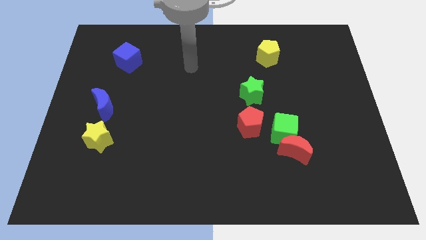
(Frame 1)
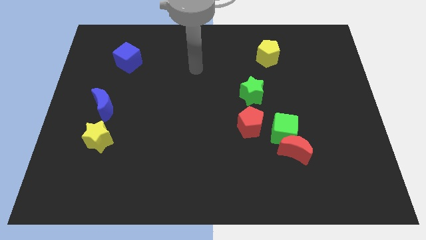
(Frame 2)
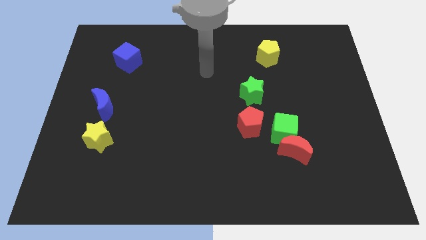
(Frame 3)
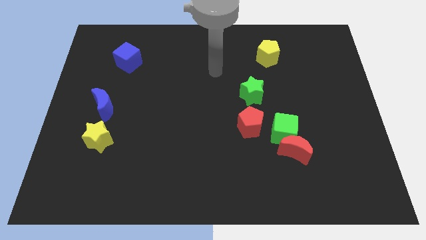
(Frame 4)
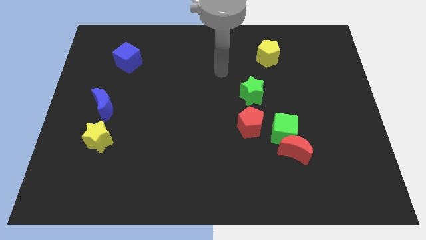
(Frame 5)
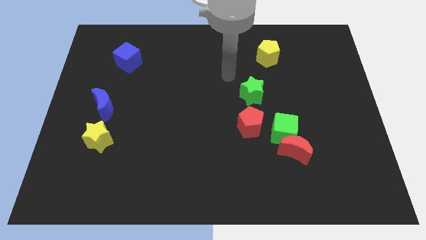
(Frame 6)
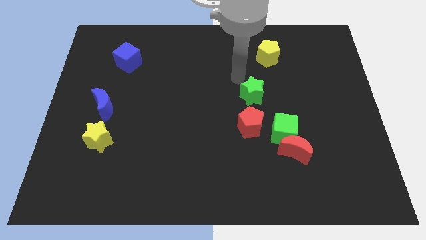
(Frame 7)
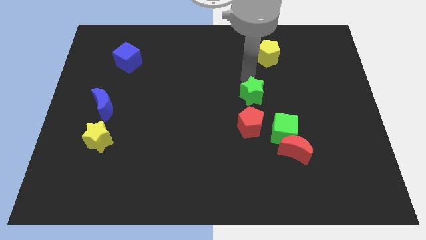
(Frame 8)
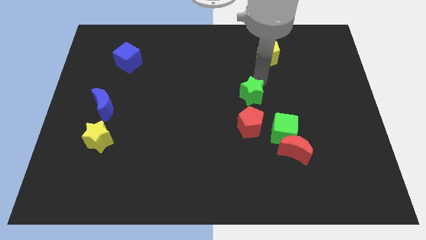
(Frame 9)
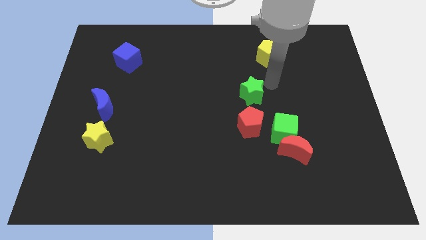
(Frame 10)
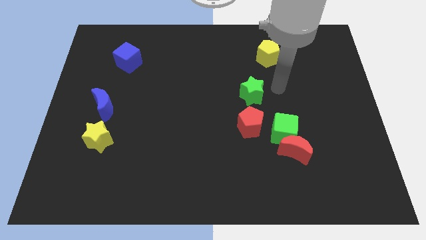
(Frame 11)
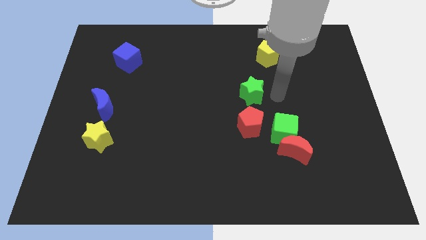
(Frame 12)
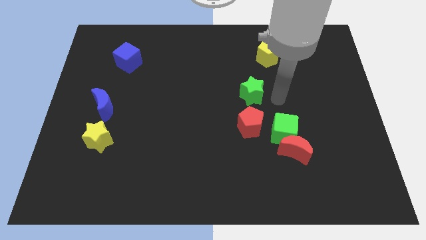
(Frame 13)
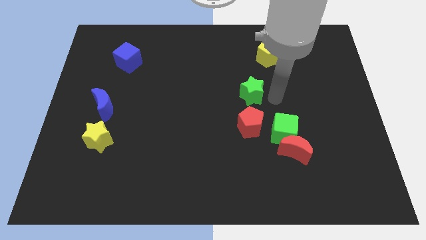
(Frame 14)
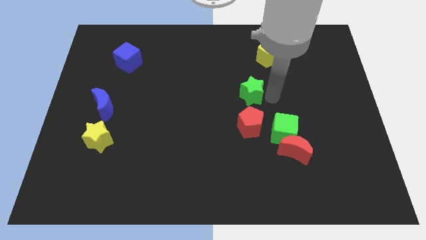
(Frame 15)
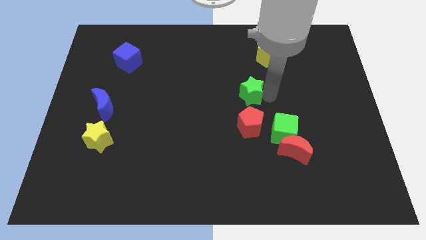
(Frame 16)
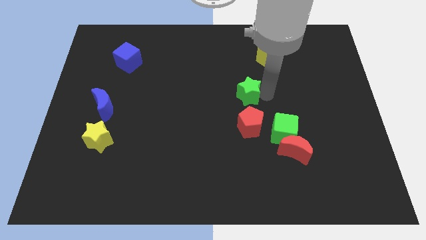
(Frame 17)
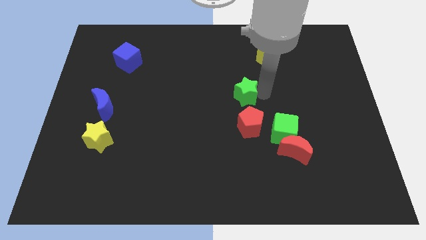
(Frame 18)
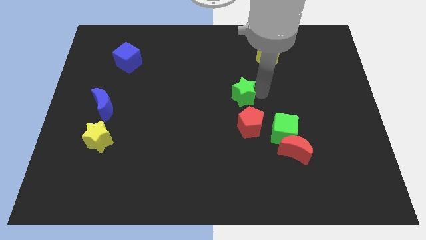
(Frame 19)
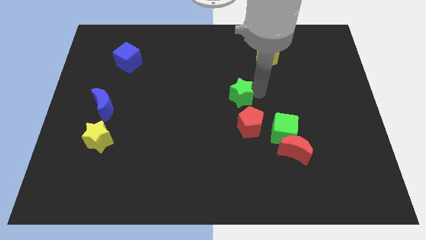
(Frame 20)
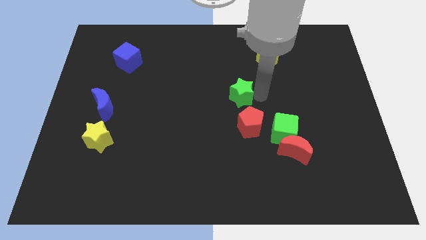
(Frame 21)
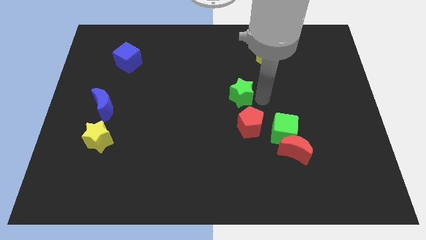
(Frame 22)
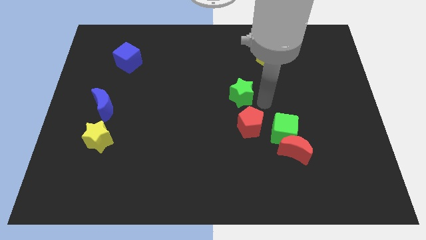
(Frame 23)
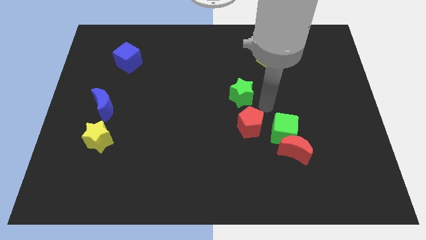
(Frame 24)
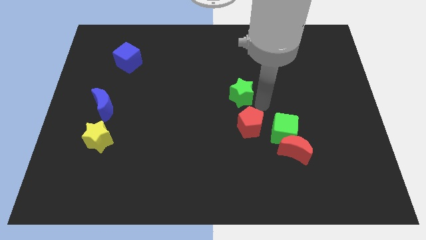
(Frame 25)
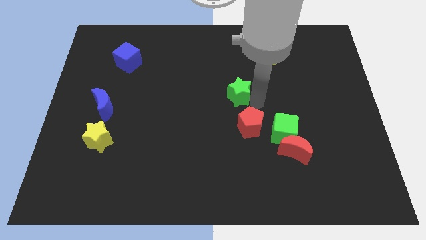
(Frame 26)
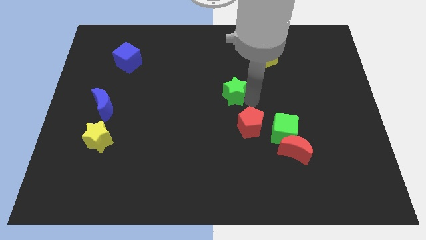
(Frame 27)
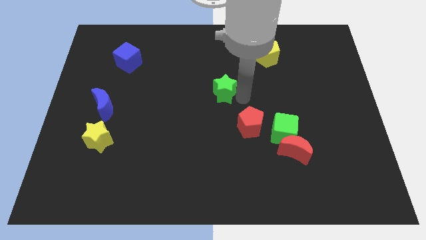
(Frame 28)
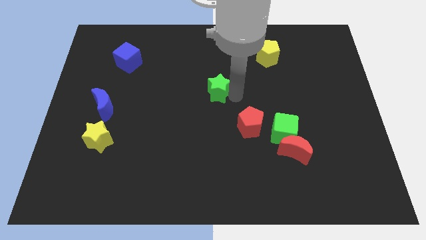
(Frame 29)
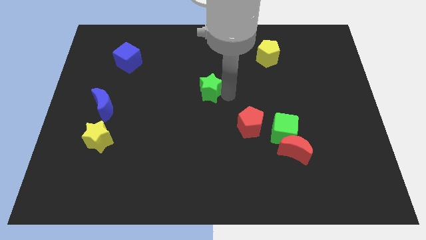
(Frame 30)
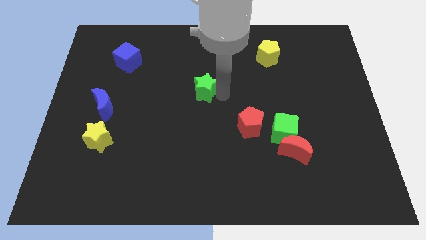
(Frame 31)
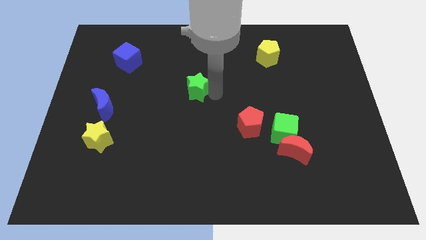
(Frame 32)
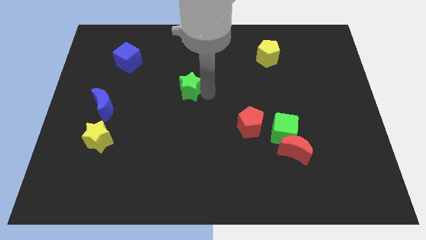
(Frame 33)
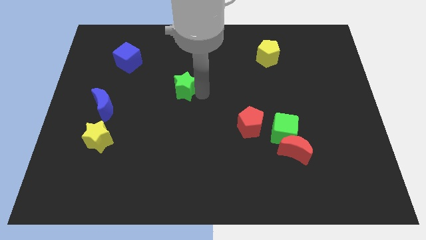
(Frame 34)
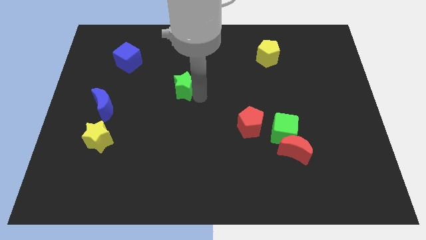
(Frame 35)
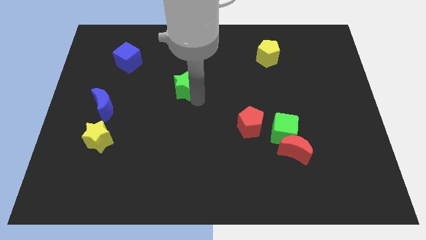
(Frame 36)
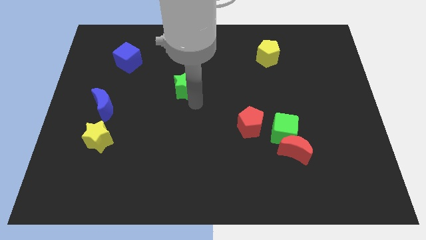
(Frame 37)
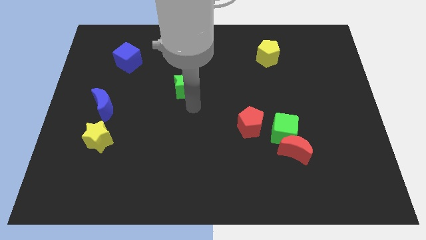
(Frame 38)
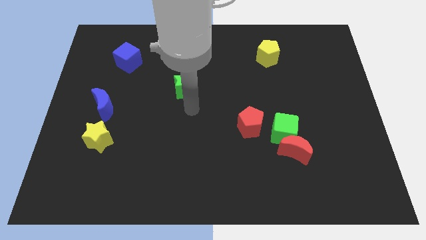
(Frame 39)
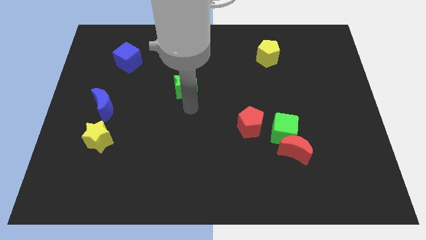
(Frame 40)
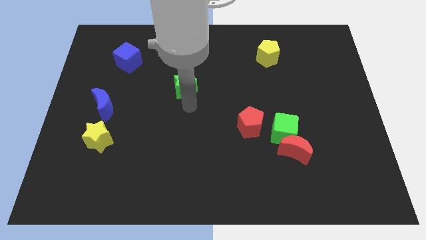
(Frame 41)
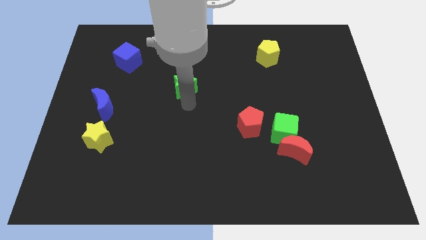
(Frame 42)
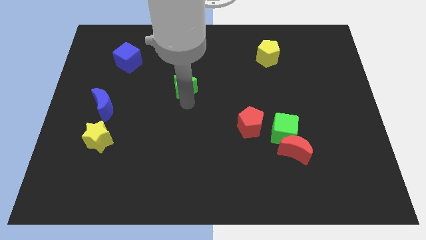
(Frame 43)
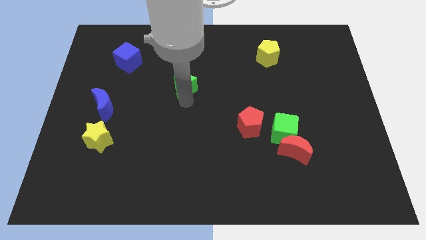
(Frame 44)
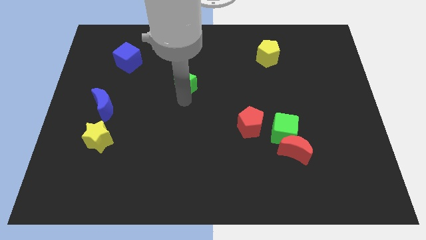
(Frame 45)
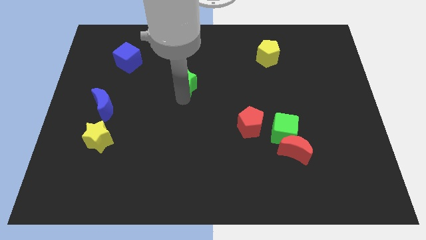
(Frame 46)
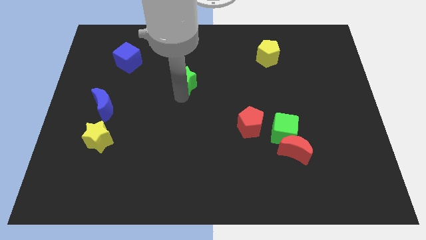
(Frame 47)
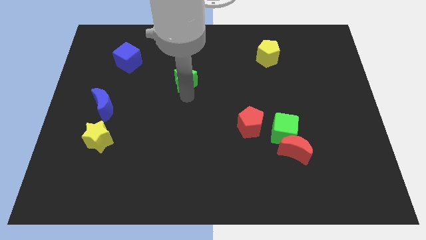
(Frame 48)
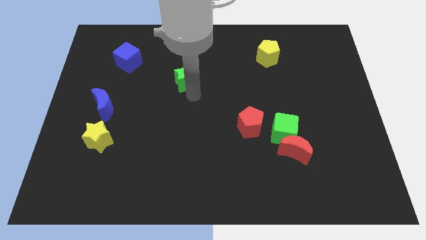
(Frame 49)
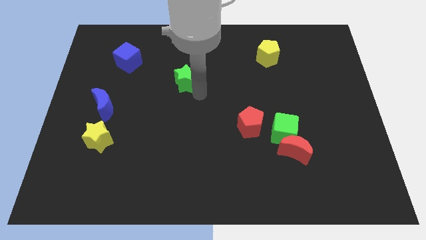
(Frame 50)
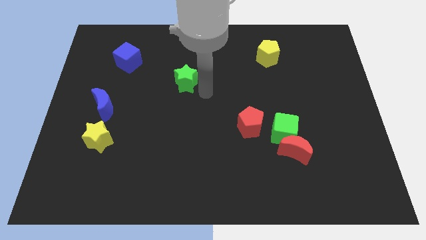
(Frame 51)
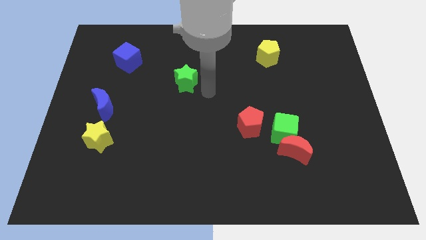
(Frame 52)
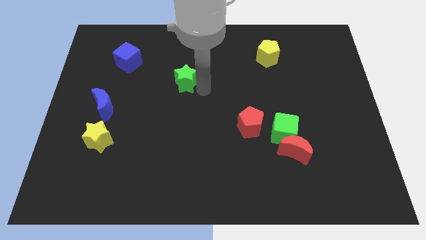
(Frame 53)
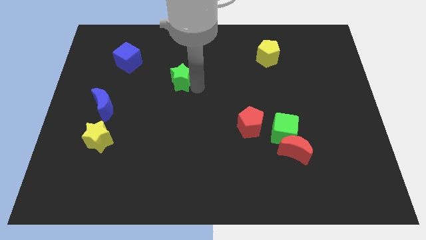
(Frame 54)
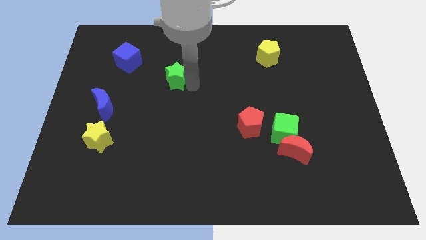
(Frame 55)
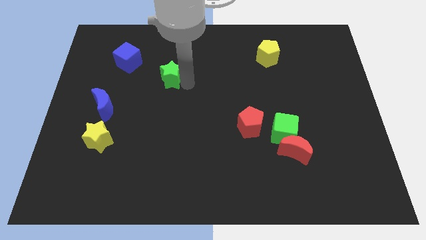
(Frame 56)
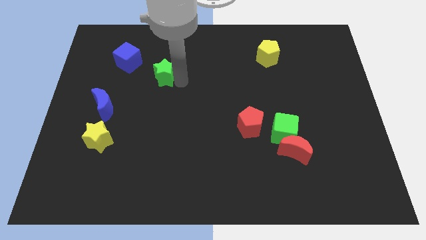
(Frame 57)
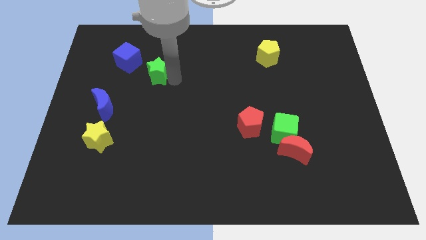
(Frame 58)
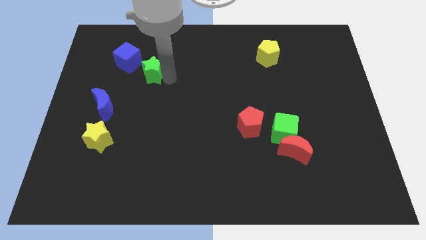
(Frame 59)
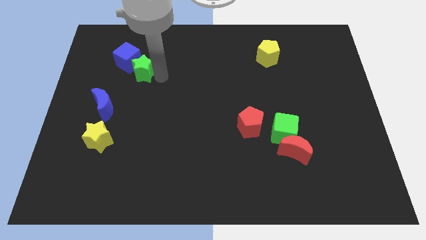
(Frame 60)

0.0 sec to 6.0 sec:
move the green star close to the blue cube

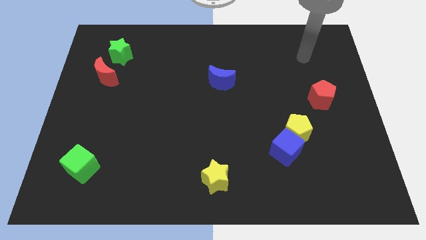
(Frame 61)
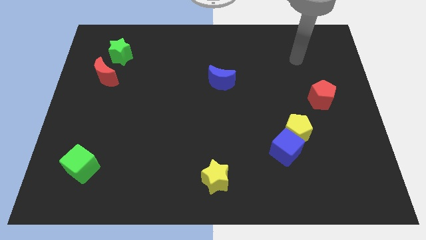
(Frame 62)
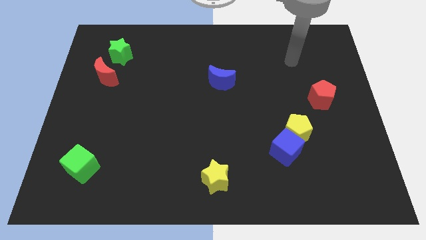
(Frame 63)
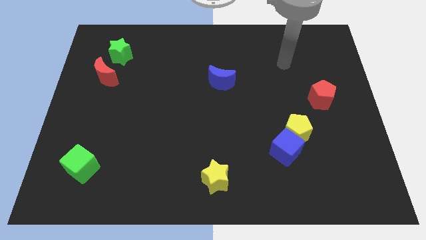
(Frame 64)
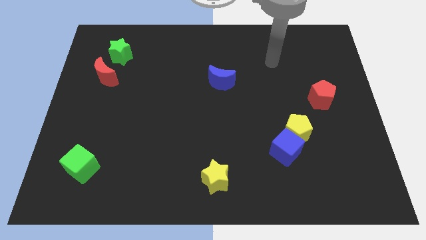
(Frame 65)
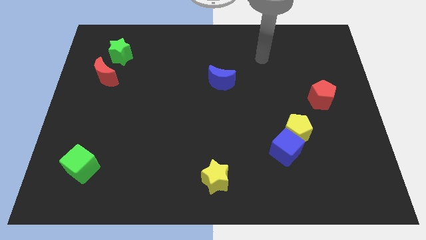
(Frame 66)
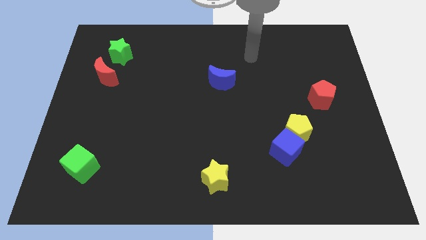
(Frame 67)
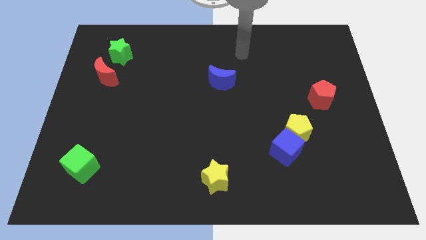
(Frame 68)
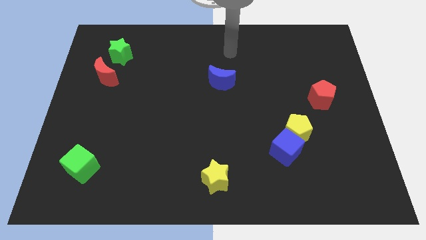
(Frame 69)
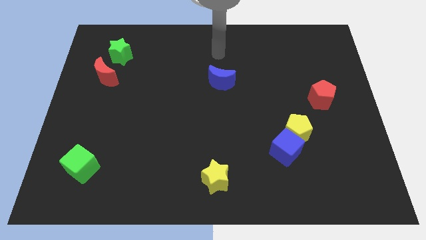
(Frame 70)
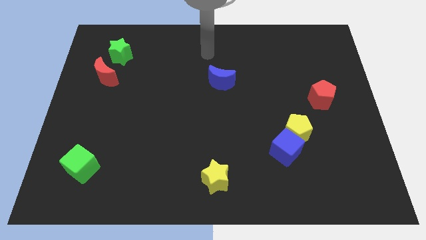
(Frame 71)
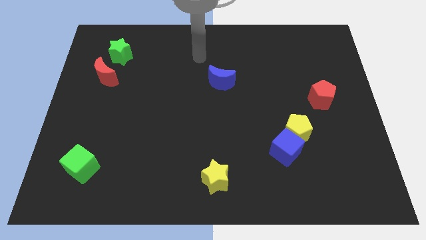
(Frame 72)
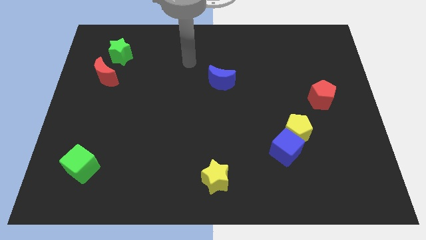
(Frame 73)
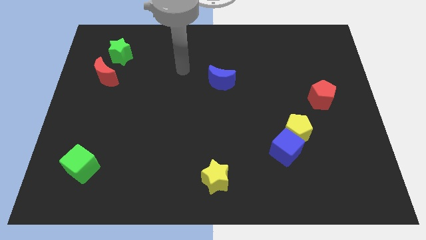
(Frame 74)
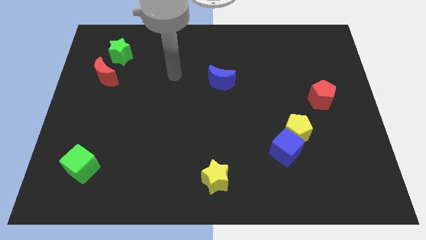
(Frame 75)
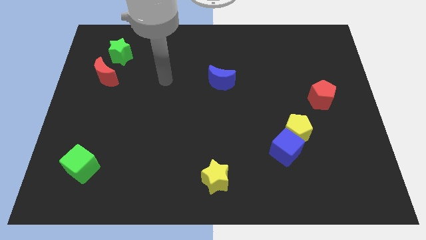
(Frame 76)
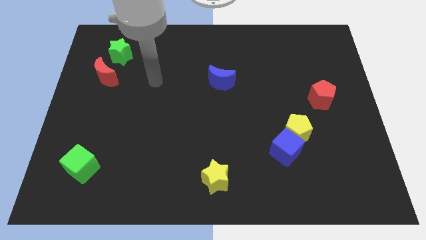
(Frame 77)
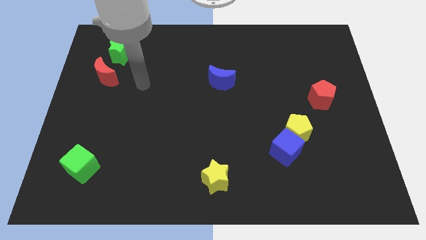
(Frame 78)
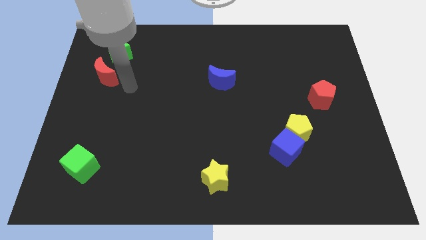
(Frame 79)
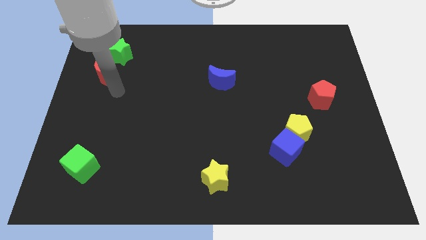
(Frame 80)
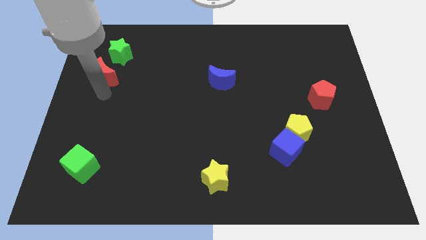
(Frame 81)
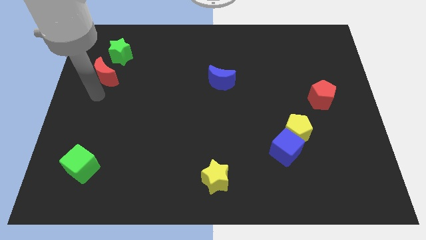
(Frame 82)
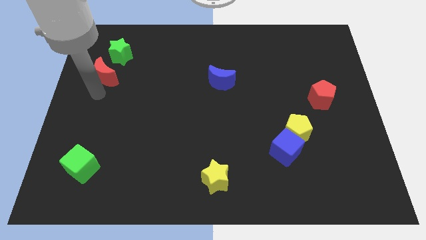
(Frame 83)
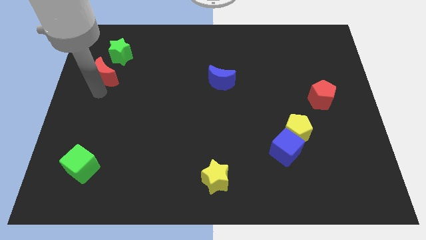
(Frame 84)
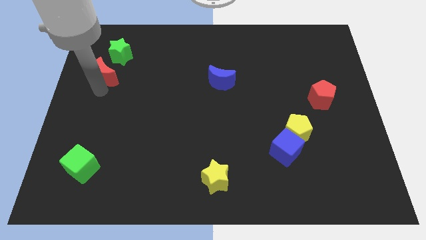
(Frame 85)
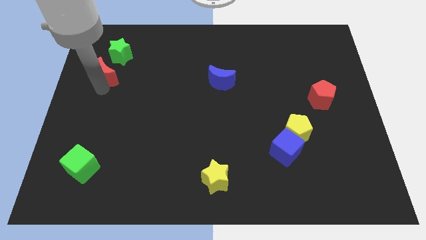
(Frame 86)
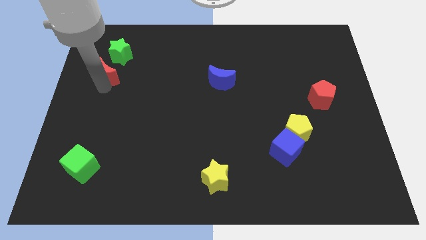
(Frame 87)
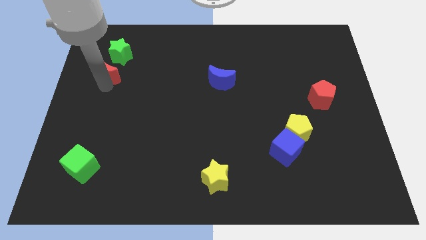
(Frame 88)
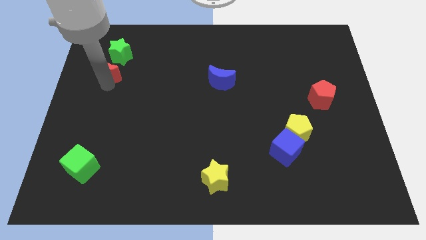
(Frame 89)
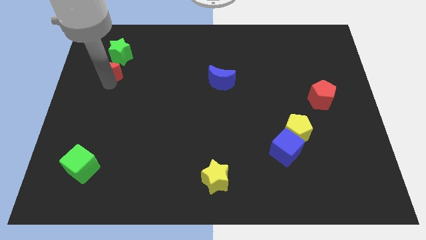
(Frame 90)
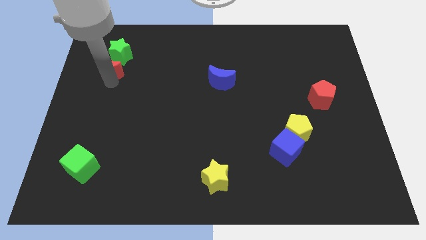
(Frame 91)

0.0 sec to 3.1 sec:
push the red moon close to the green star
